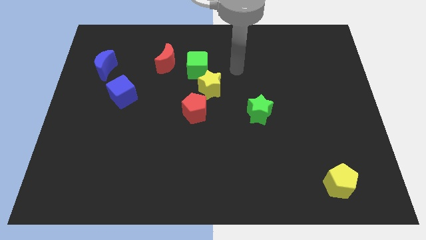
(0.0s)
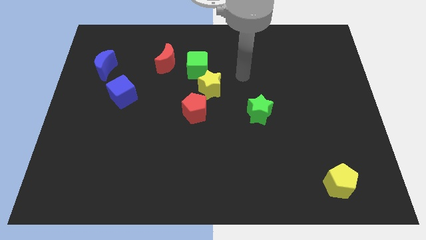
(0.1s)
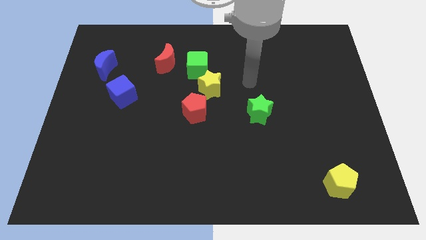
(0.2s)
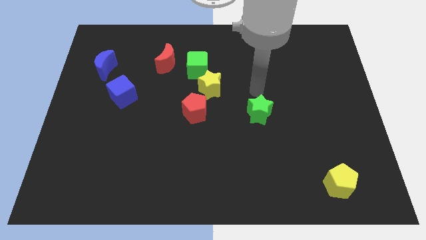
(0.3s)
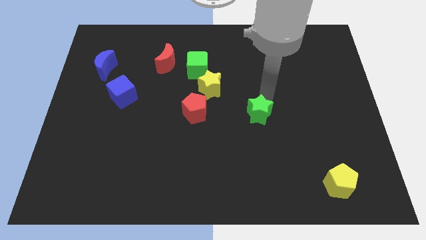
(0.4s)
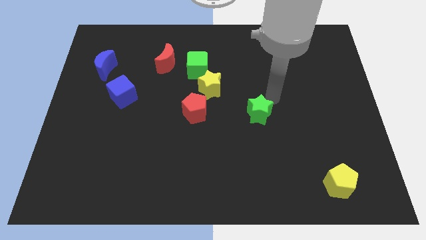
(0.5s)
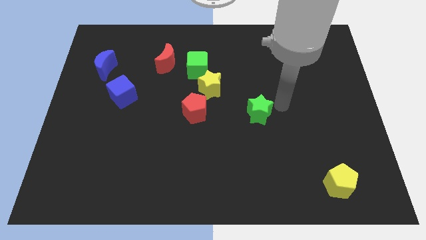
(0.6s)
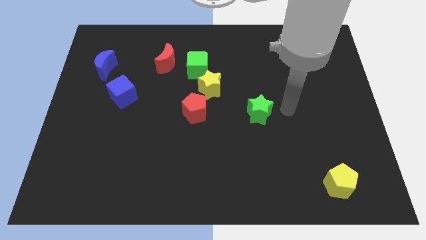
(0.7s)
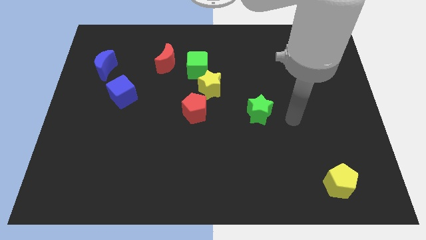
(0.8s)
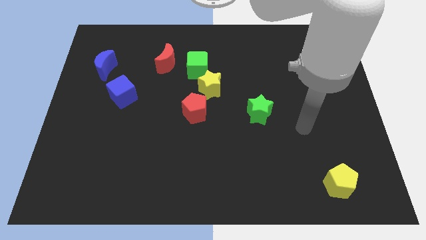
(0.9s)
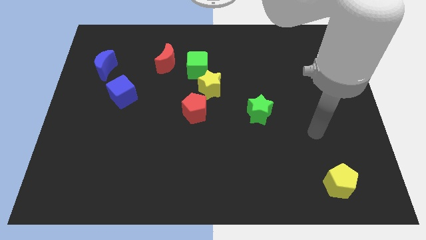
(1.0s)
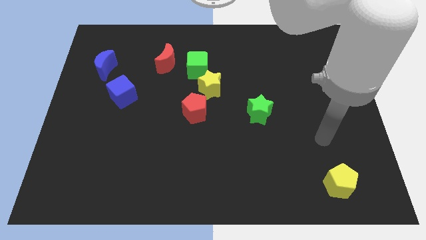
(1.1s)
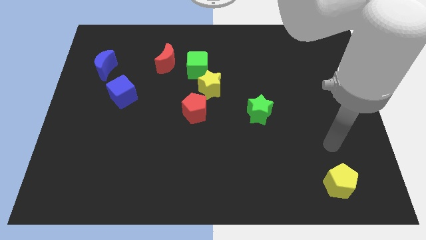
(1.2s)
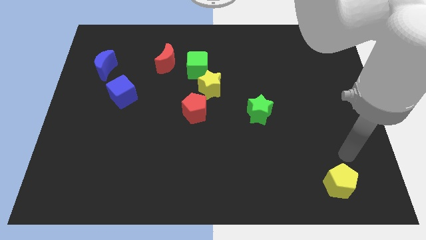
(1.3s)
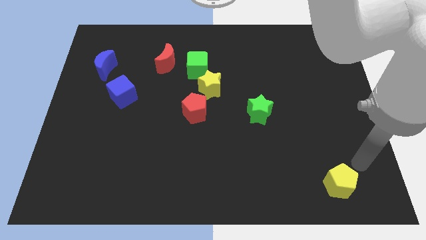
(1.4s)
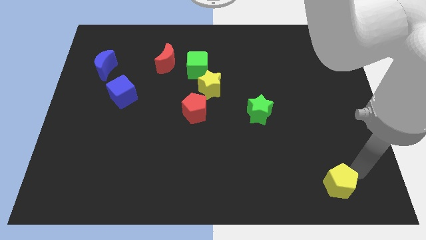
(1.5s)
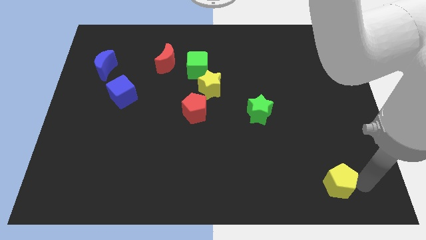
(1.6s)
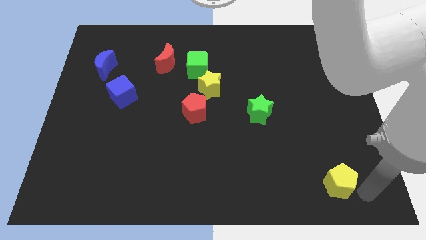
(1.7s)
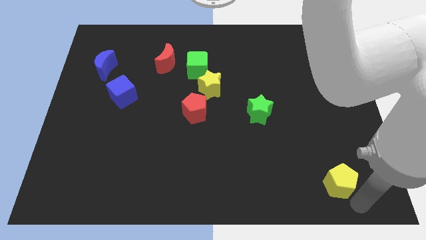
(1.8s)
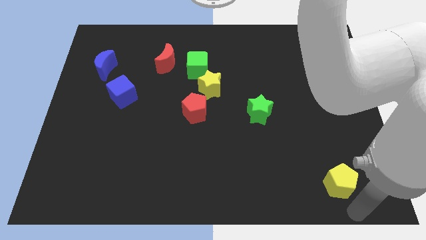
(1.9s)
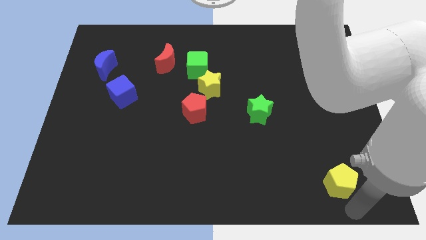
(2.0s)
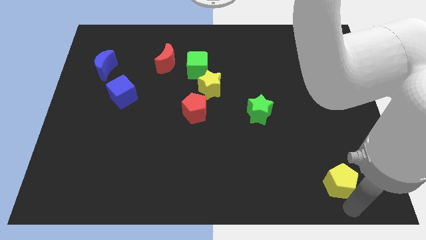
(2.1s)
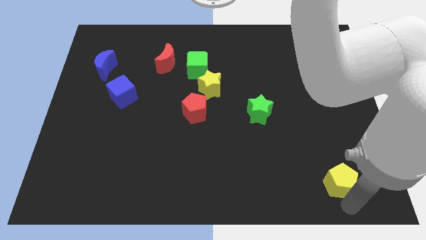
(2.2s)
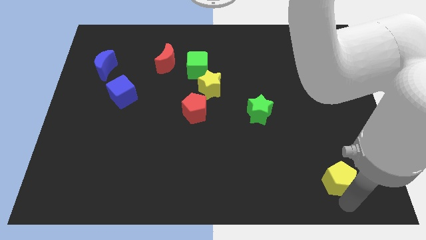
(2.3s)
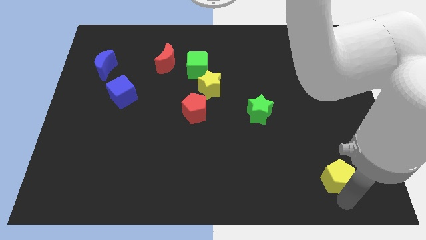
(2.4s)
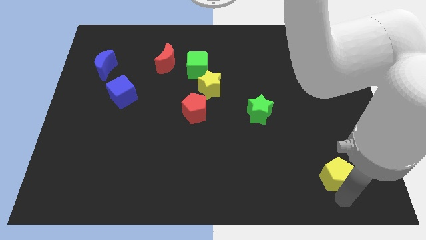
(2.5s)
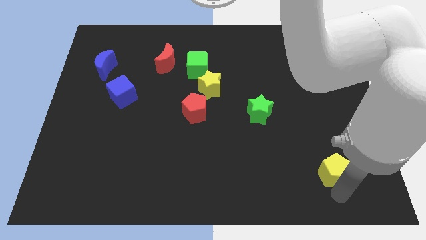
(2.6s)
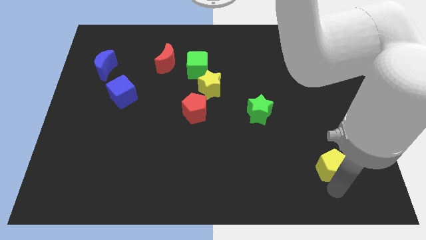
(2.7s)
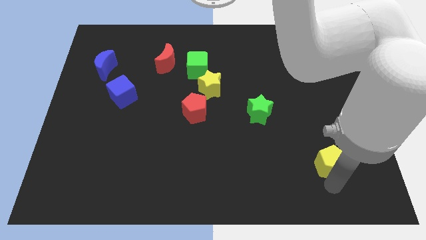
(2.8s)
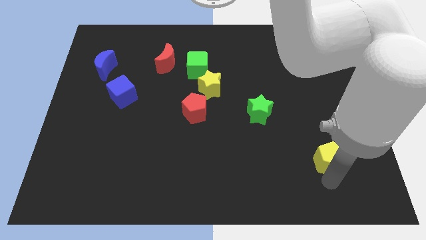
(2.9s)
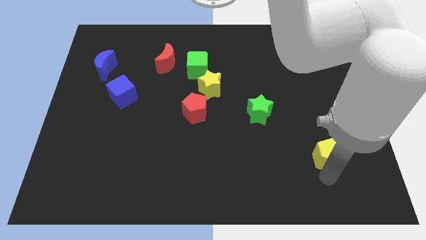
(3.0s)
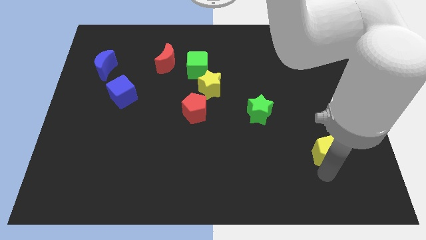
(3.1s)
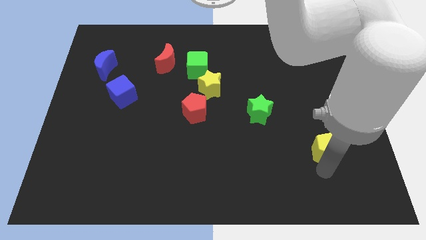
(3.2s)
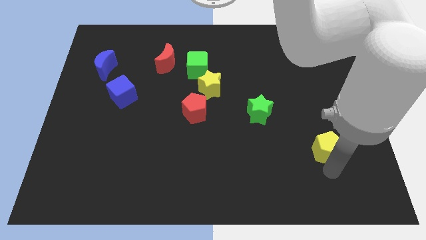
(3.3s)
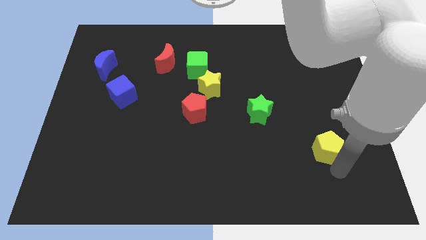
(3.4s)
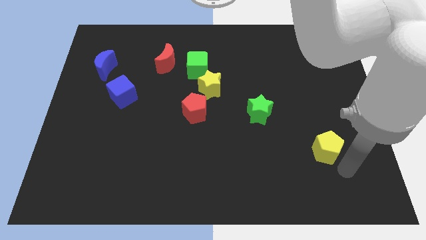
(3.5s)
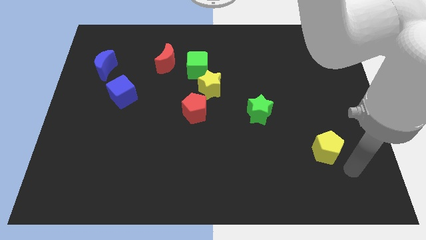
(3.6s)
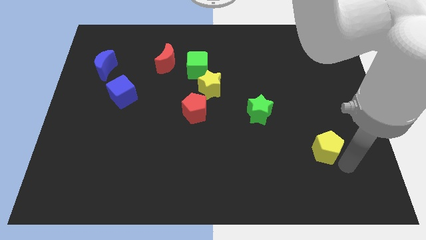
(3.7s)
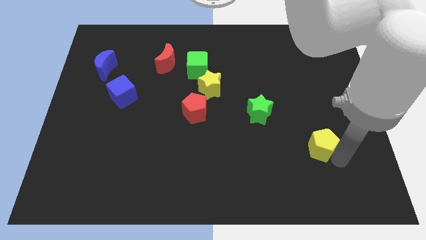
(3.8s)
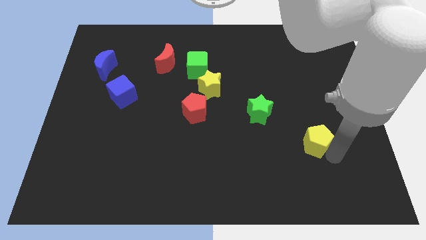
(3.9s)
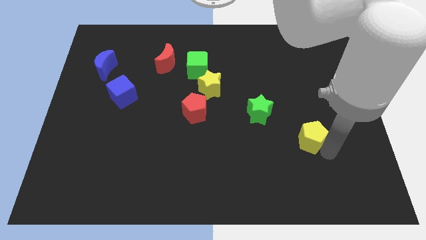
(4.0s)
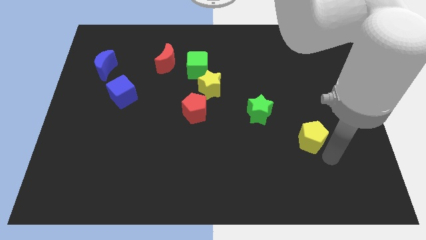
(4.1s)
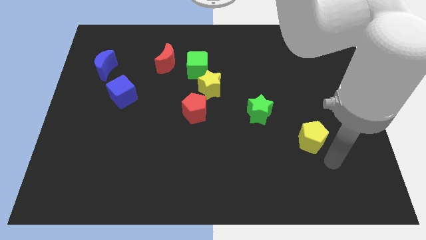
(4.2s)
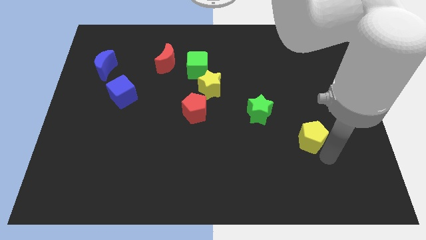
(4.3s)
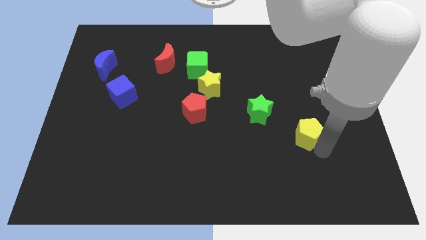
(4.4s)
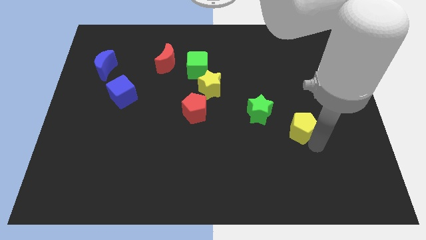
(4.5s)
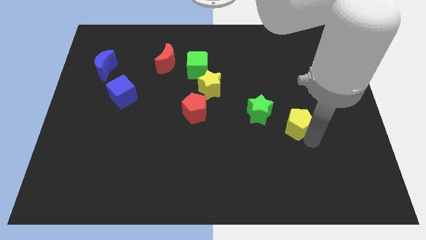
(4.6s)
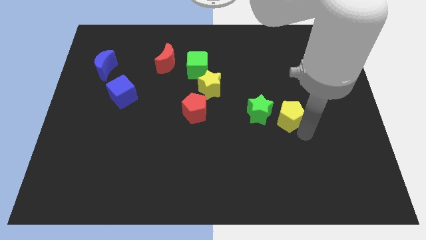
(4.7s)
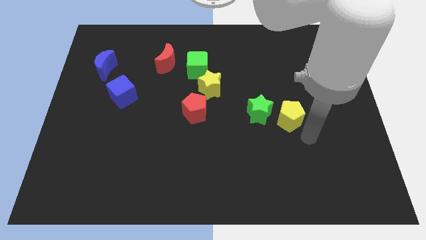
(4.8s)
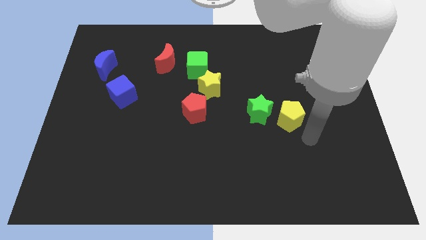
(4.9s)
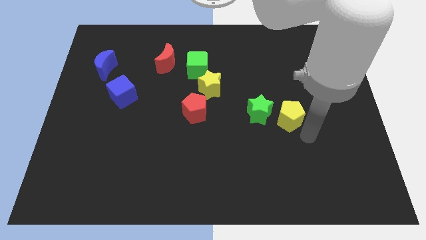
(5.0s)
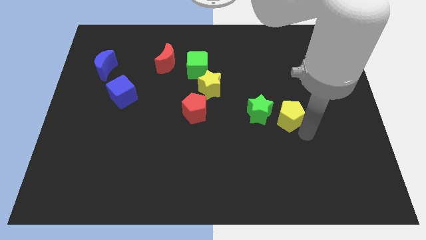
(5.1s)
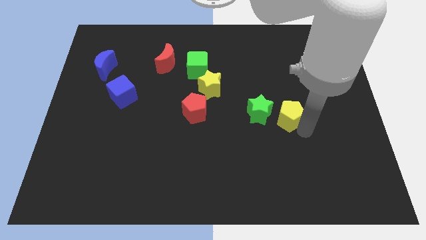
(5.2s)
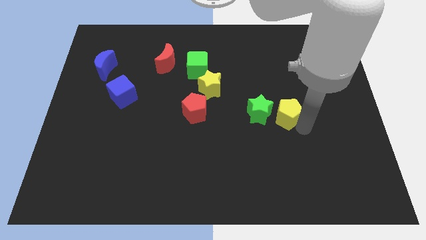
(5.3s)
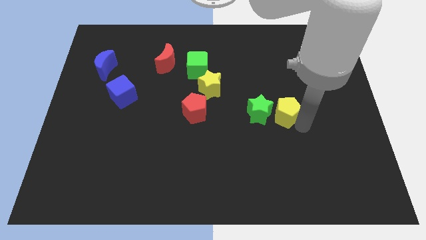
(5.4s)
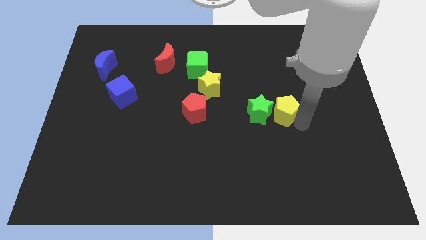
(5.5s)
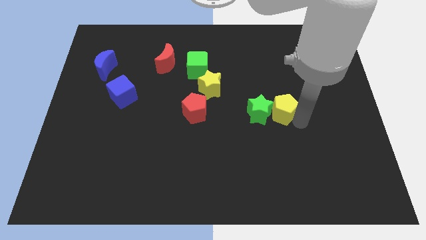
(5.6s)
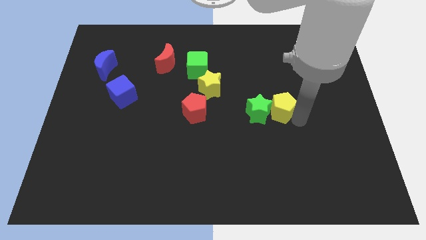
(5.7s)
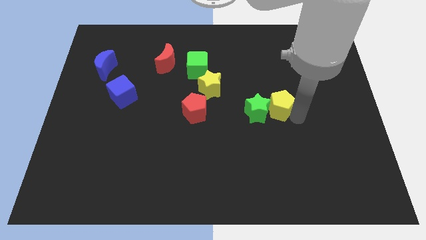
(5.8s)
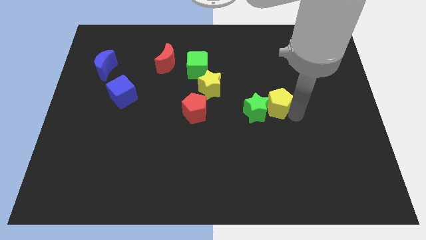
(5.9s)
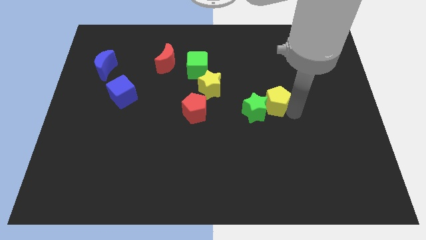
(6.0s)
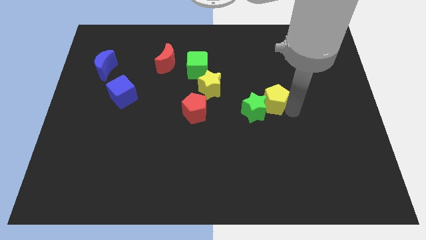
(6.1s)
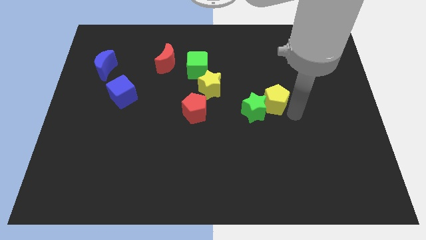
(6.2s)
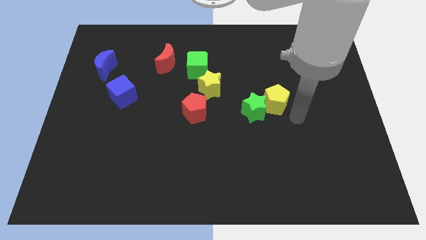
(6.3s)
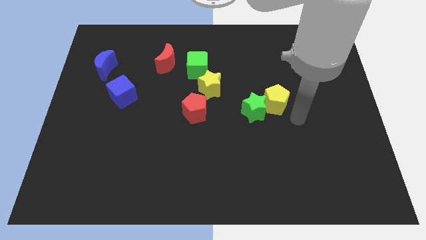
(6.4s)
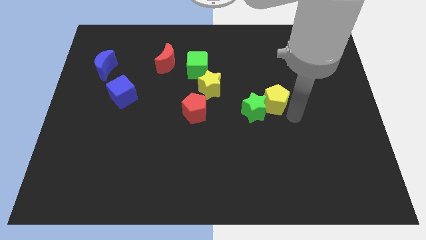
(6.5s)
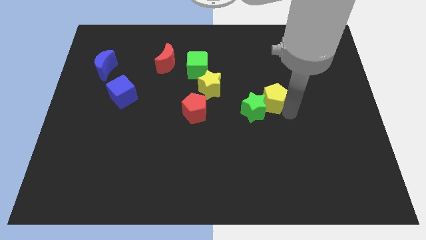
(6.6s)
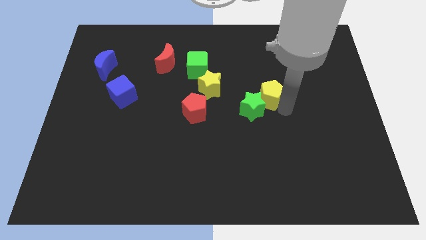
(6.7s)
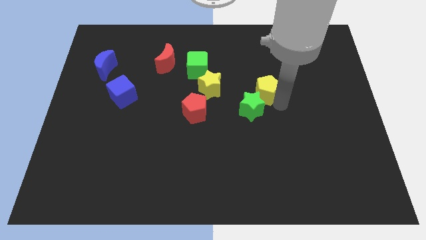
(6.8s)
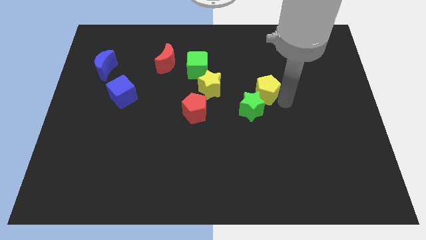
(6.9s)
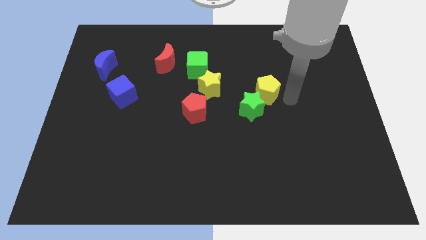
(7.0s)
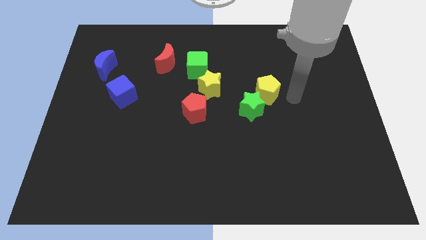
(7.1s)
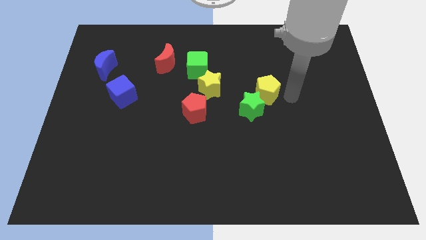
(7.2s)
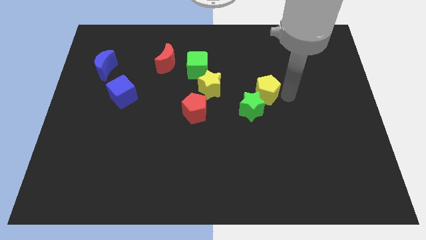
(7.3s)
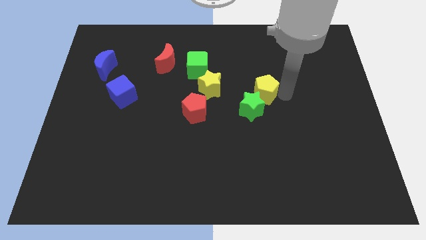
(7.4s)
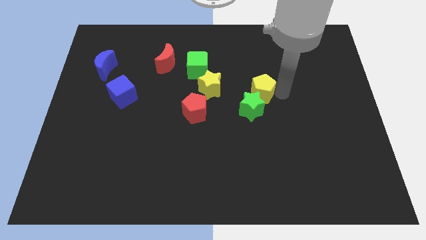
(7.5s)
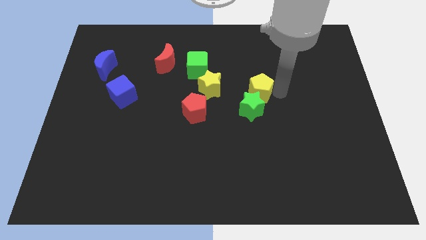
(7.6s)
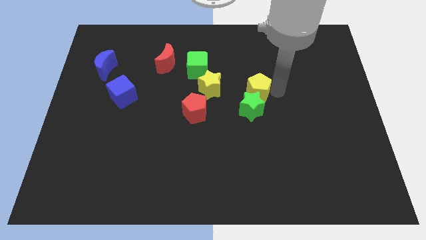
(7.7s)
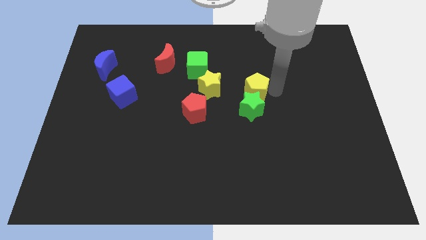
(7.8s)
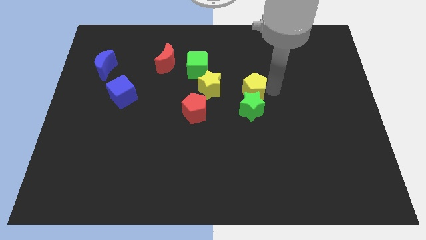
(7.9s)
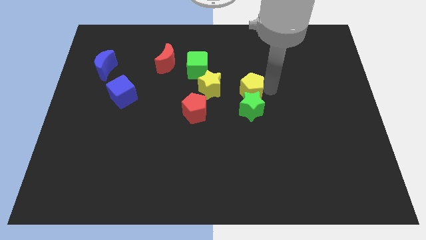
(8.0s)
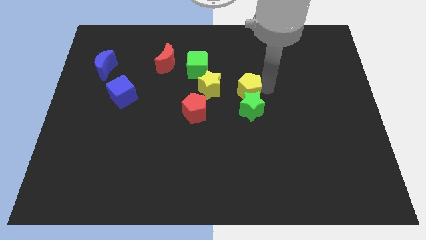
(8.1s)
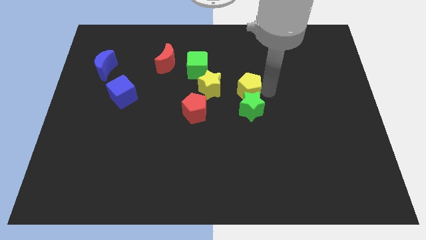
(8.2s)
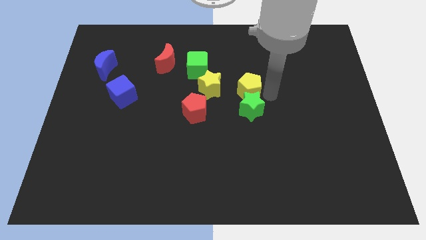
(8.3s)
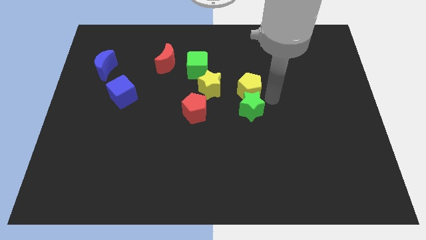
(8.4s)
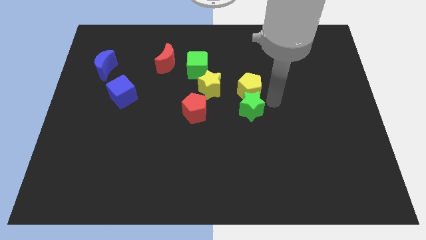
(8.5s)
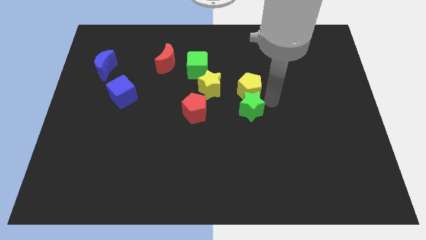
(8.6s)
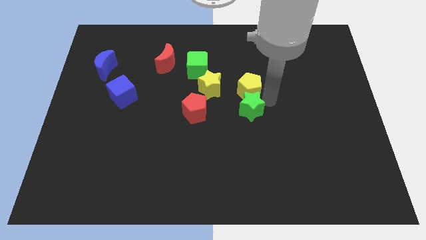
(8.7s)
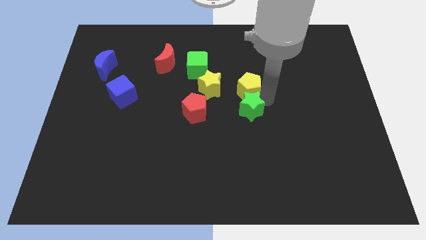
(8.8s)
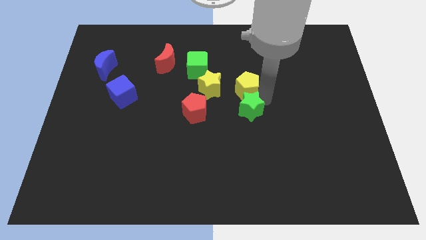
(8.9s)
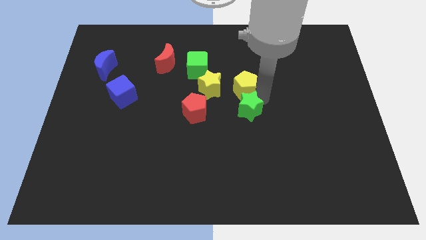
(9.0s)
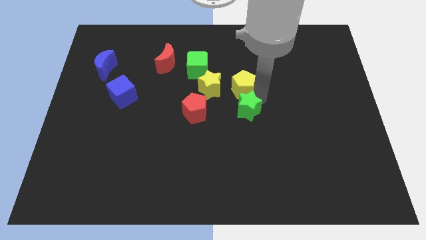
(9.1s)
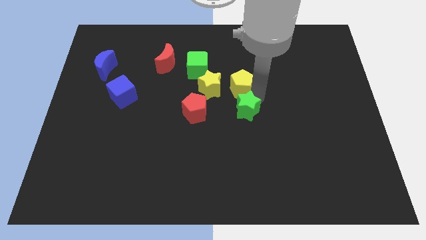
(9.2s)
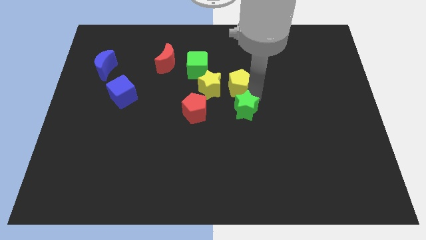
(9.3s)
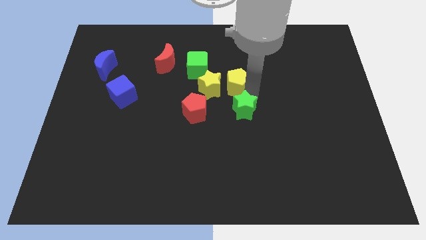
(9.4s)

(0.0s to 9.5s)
put the yellow pentagon to the top right of the red pentagon
